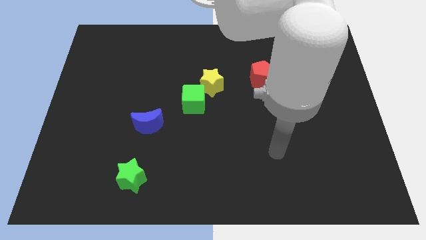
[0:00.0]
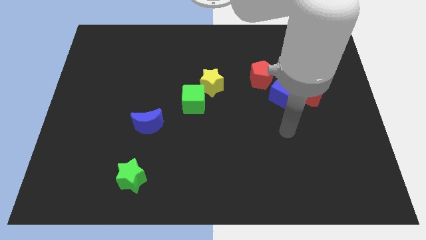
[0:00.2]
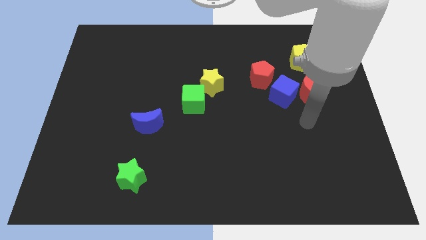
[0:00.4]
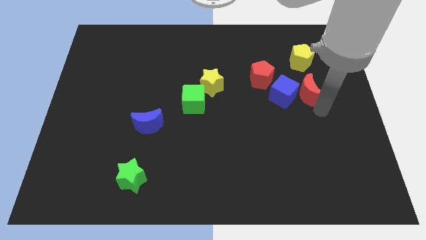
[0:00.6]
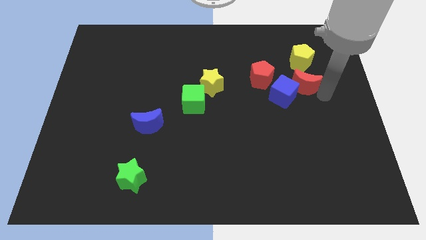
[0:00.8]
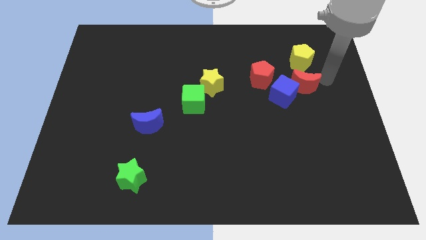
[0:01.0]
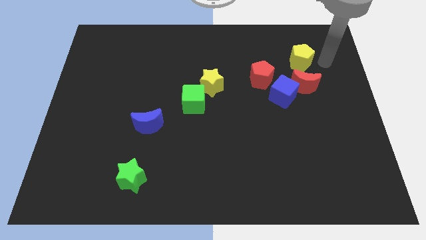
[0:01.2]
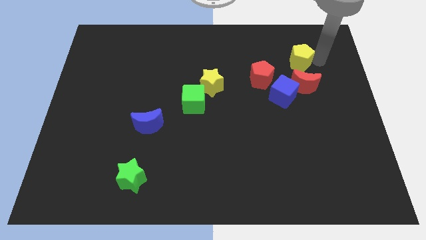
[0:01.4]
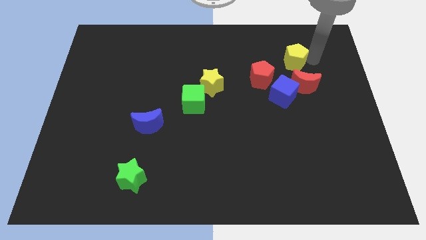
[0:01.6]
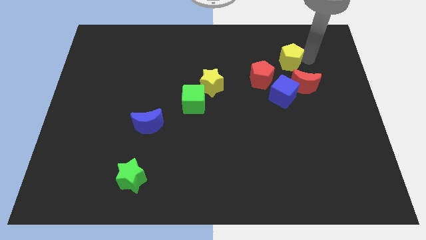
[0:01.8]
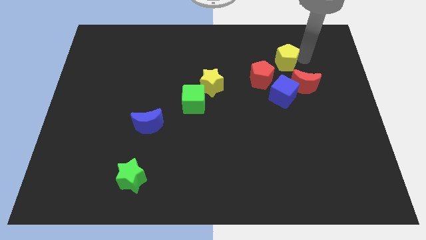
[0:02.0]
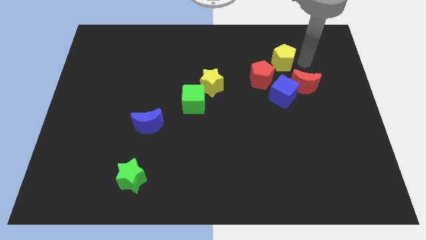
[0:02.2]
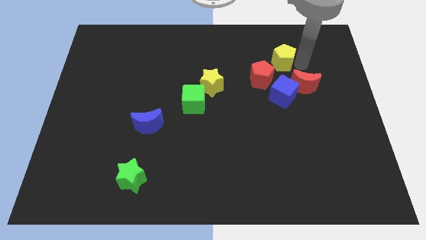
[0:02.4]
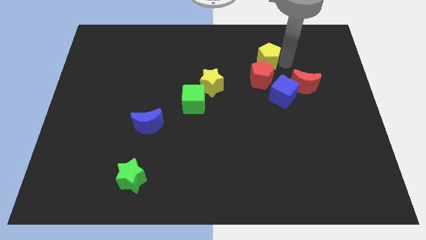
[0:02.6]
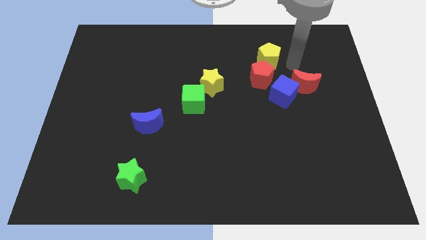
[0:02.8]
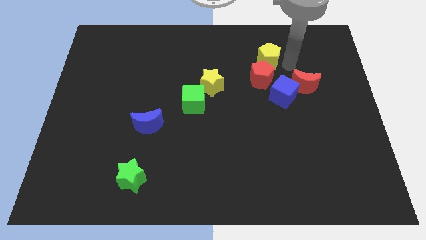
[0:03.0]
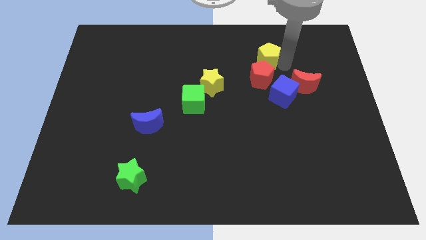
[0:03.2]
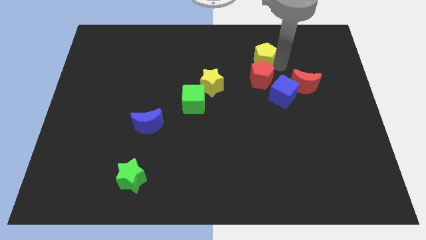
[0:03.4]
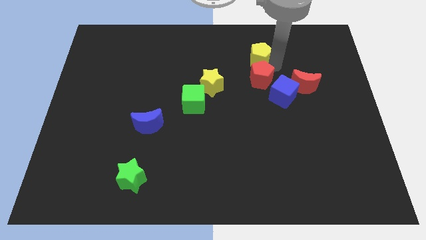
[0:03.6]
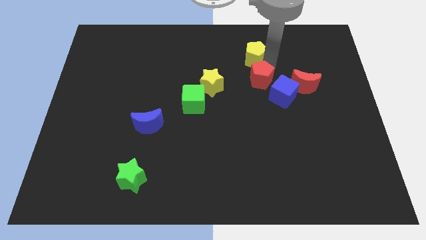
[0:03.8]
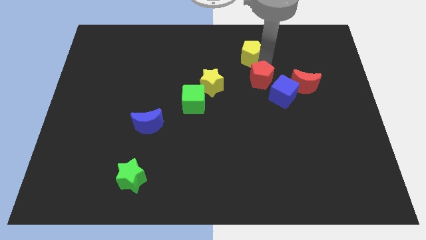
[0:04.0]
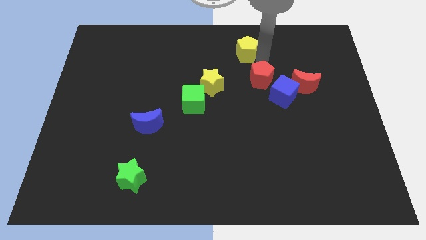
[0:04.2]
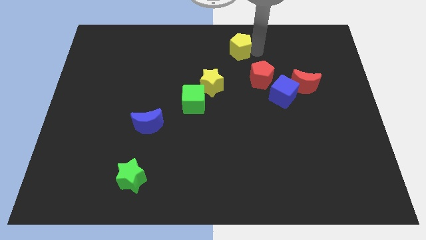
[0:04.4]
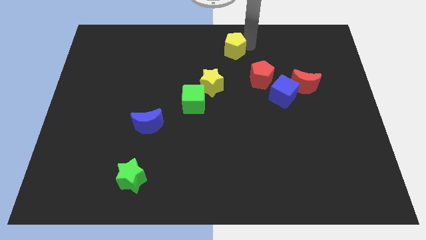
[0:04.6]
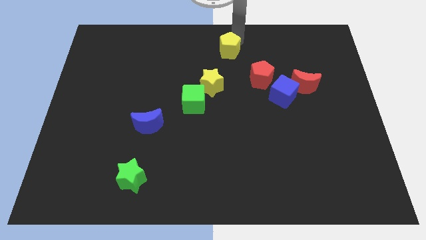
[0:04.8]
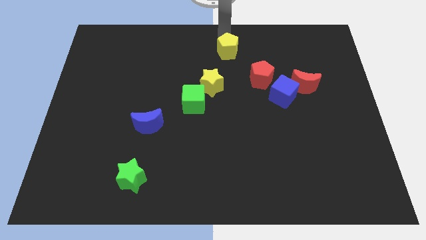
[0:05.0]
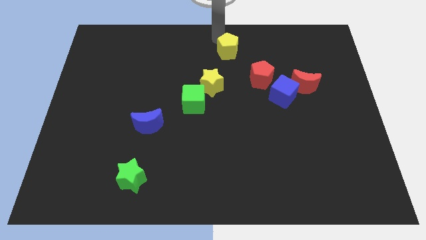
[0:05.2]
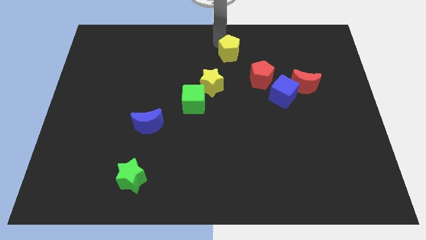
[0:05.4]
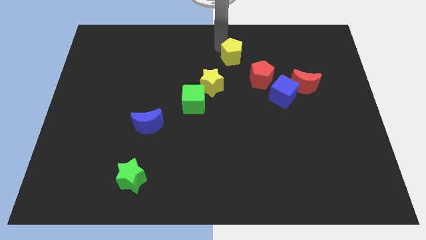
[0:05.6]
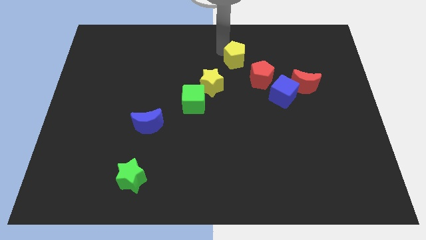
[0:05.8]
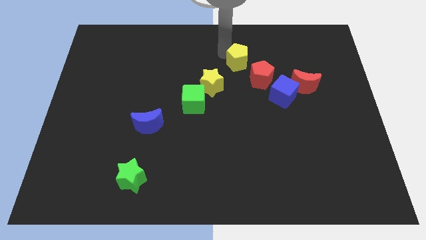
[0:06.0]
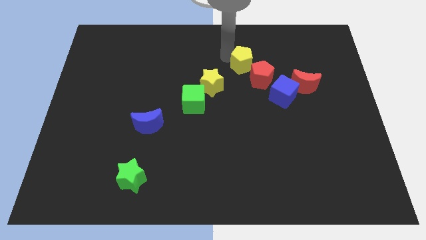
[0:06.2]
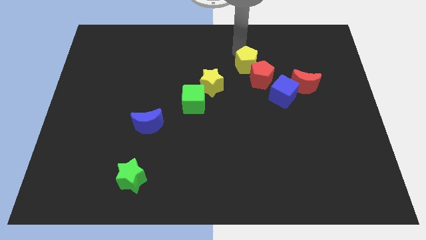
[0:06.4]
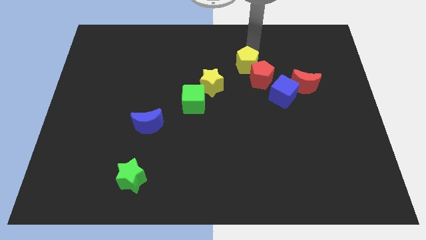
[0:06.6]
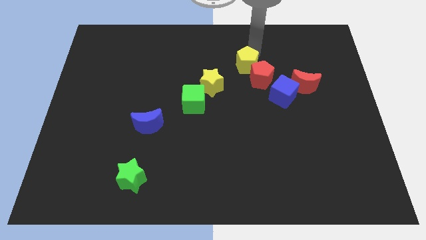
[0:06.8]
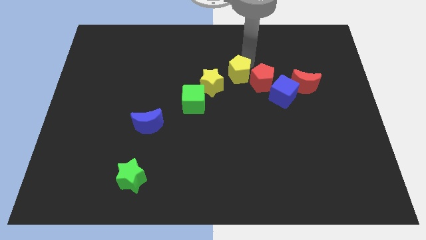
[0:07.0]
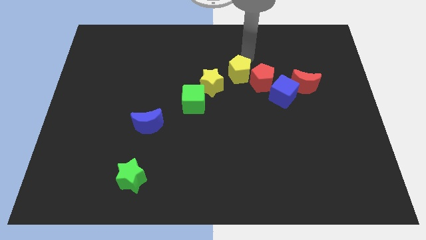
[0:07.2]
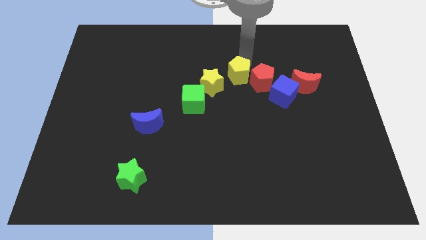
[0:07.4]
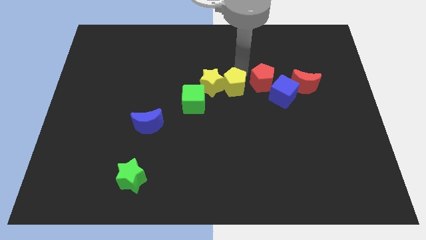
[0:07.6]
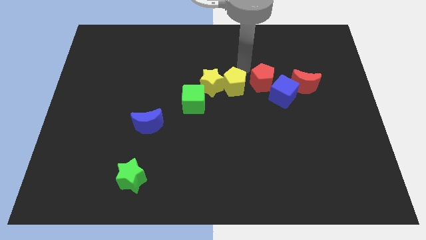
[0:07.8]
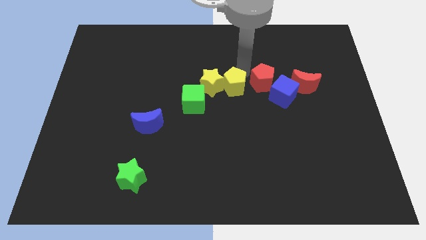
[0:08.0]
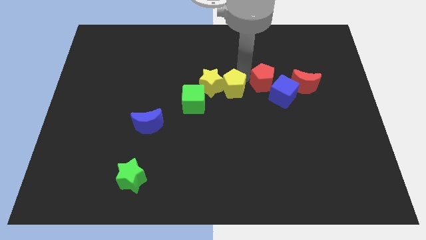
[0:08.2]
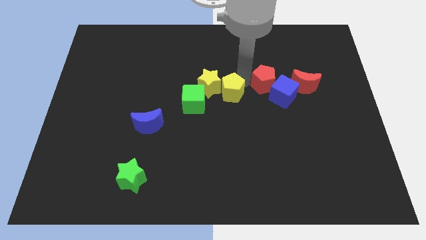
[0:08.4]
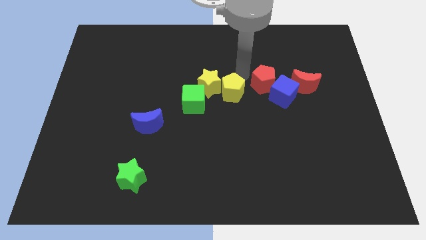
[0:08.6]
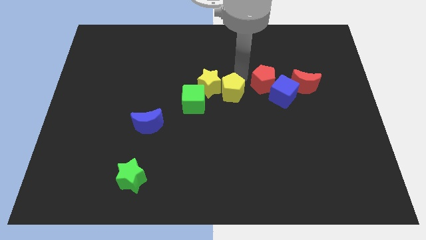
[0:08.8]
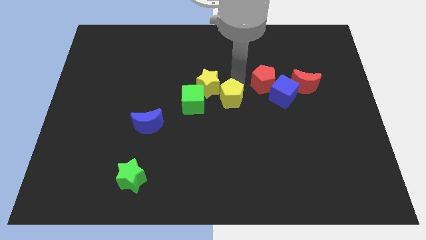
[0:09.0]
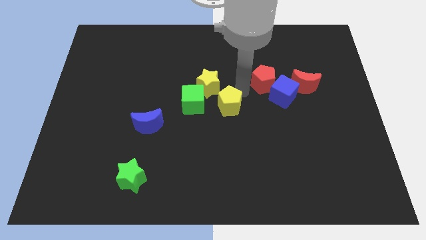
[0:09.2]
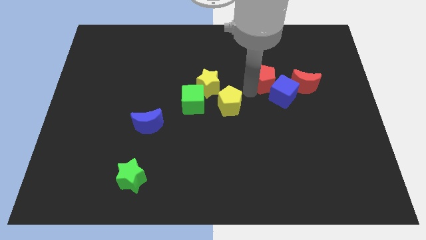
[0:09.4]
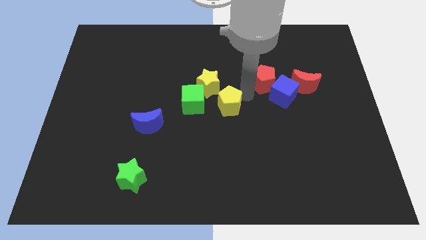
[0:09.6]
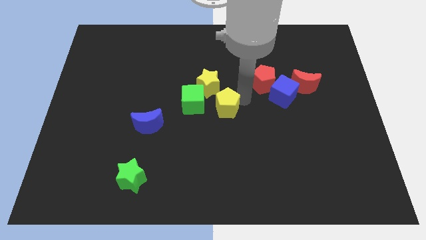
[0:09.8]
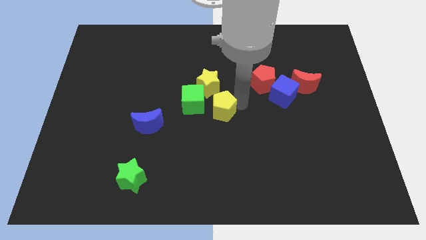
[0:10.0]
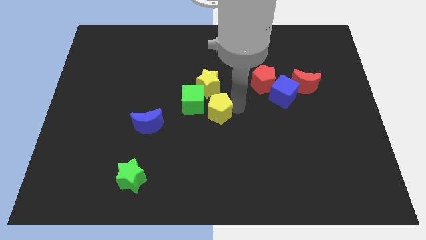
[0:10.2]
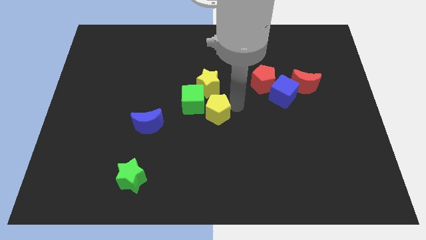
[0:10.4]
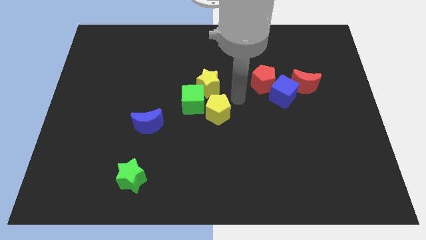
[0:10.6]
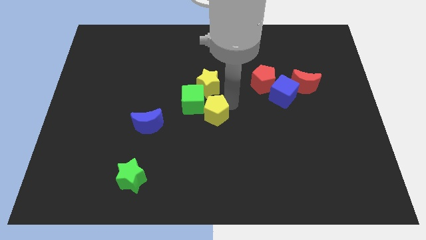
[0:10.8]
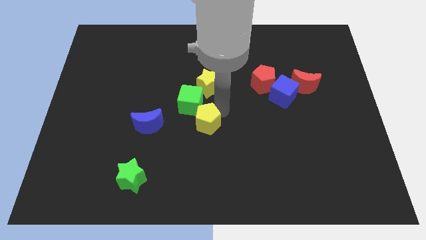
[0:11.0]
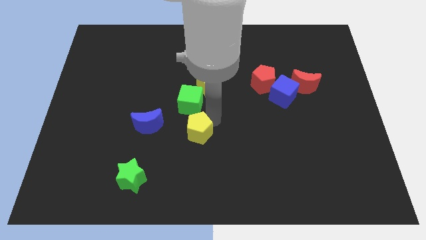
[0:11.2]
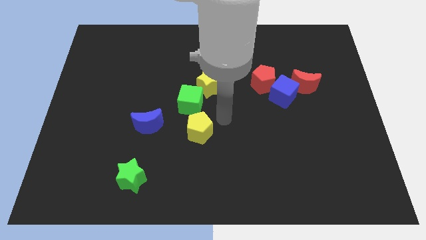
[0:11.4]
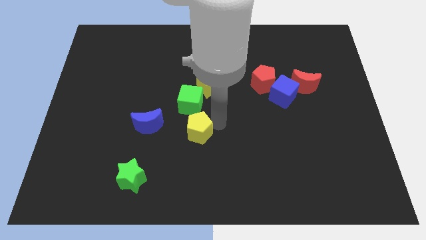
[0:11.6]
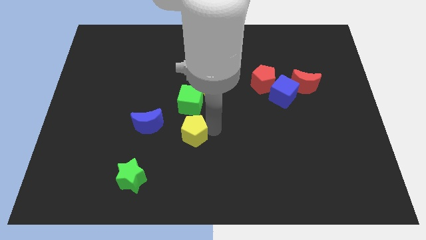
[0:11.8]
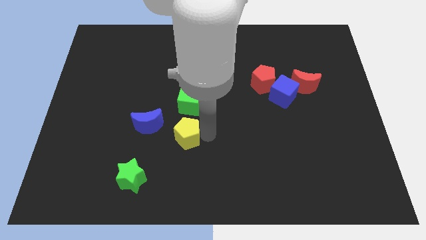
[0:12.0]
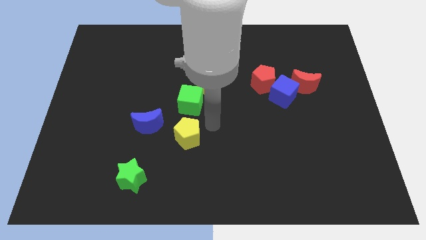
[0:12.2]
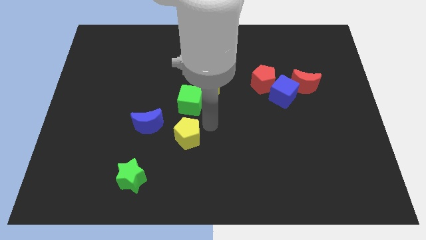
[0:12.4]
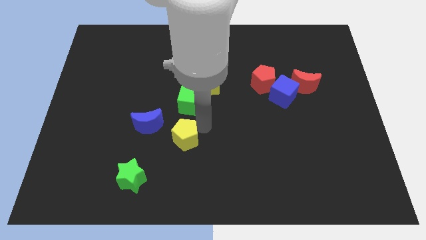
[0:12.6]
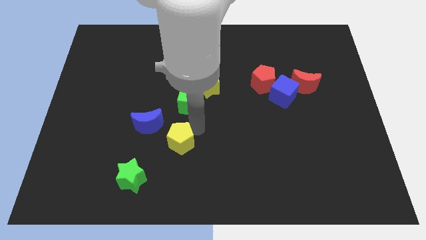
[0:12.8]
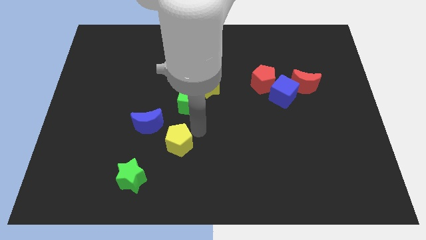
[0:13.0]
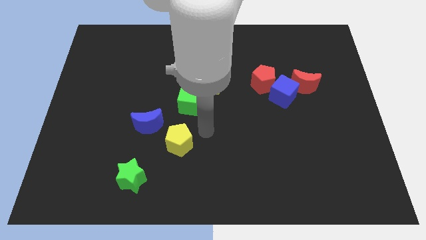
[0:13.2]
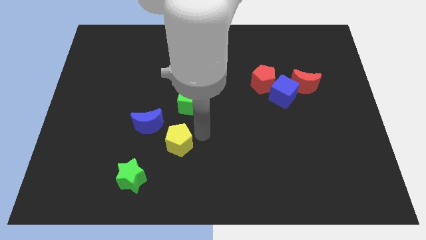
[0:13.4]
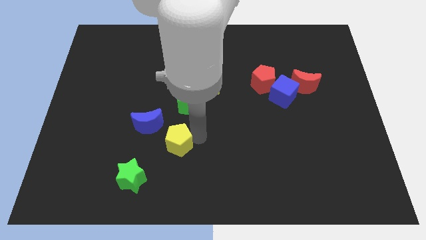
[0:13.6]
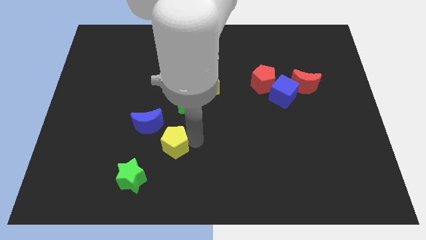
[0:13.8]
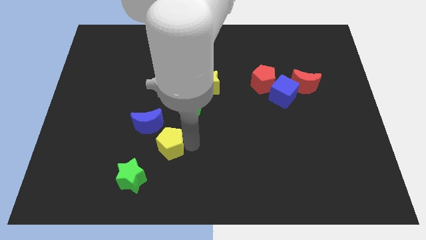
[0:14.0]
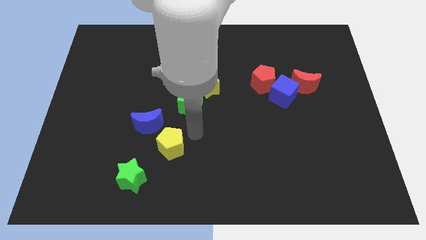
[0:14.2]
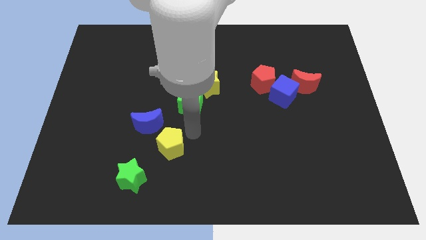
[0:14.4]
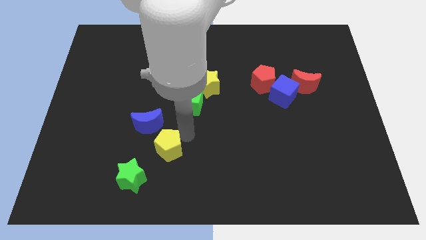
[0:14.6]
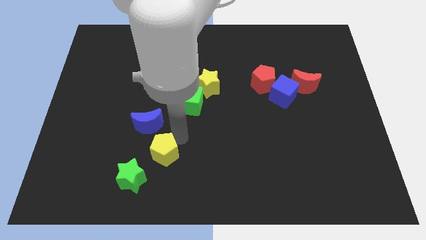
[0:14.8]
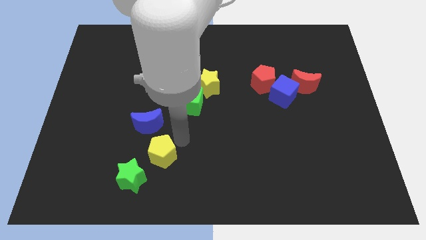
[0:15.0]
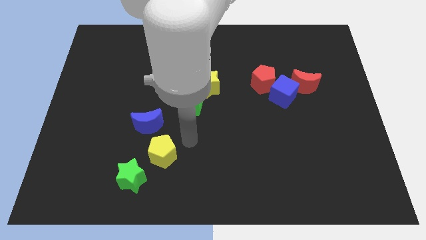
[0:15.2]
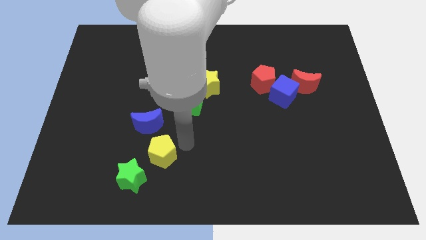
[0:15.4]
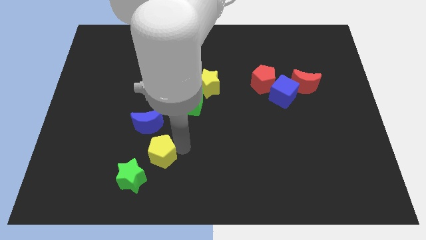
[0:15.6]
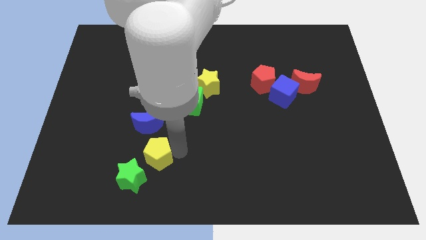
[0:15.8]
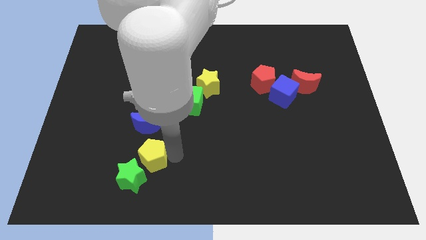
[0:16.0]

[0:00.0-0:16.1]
slide the yellow pentagon to the green star

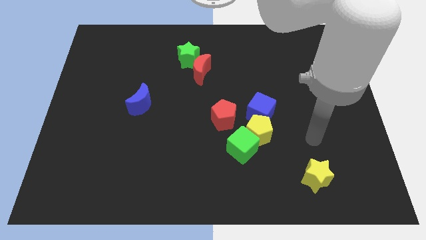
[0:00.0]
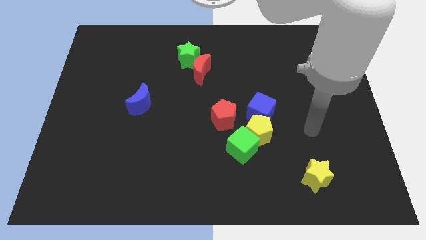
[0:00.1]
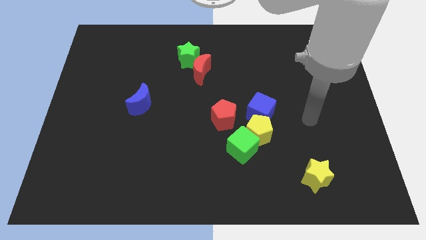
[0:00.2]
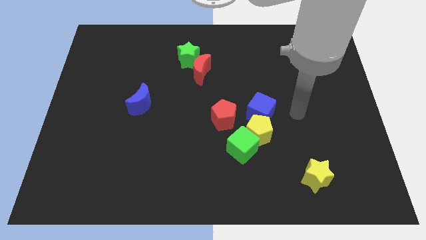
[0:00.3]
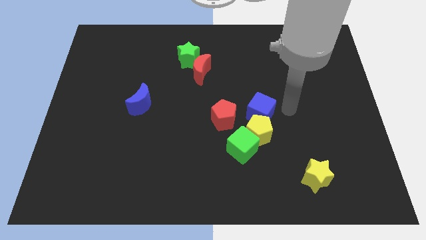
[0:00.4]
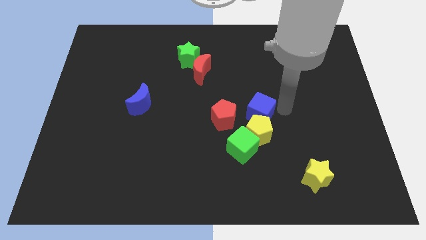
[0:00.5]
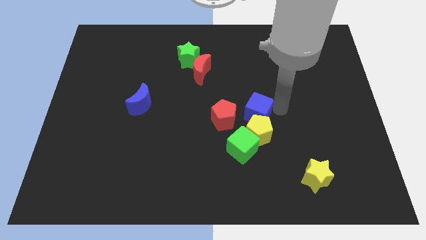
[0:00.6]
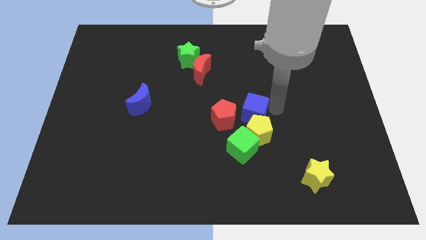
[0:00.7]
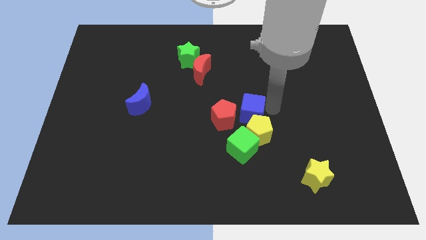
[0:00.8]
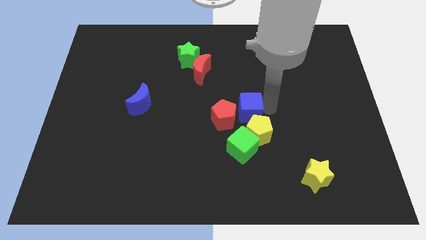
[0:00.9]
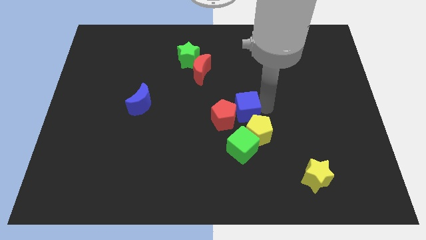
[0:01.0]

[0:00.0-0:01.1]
push the blue cube next to the red pentagon
